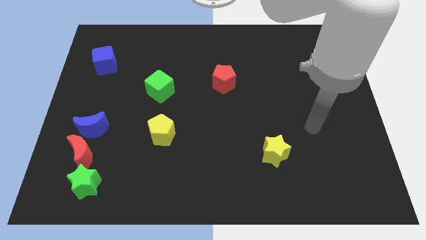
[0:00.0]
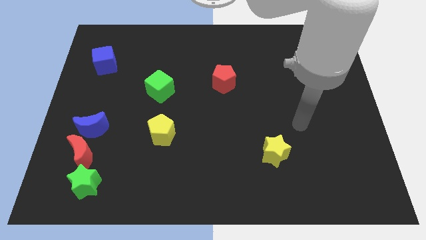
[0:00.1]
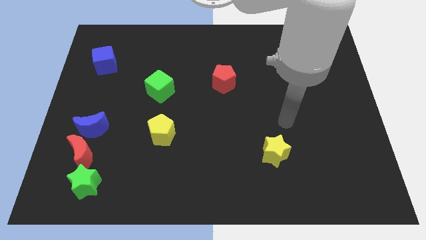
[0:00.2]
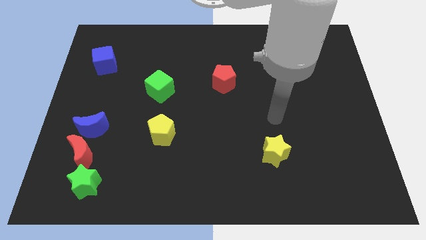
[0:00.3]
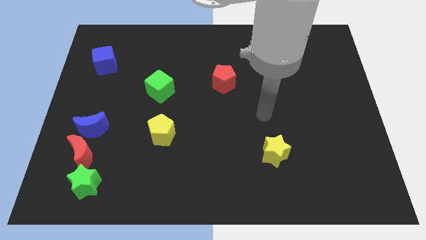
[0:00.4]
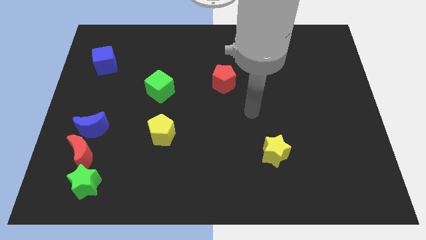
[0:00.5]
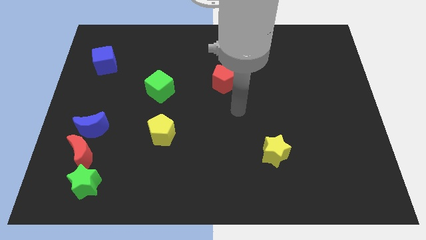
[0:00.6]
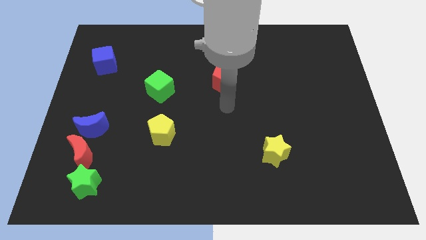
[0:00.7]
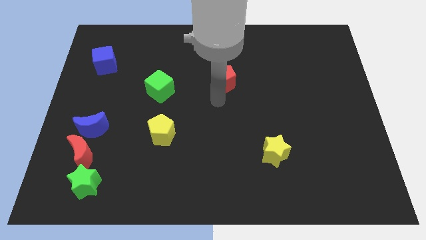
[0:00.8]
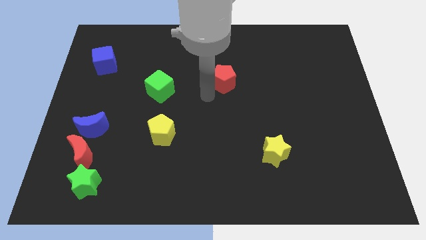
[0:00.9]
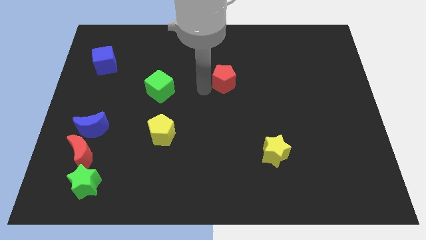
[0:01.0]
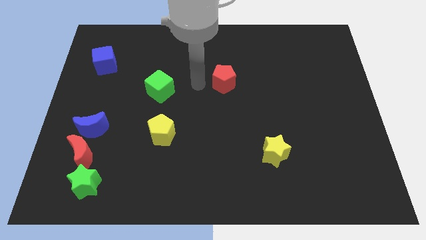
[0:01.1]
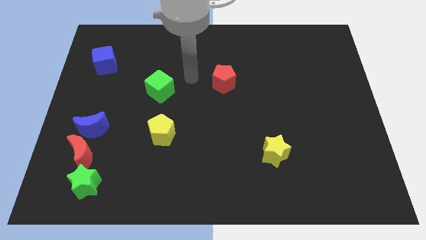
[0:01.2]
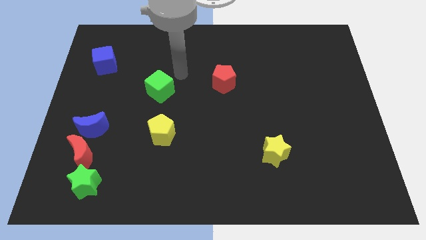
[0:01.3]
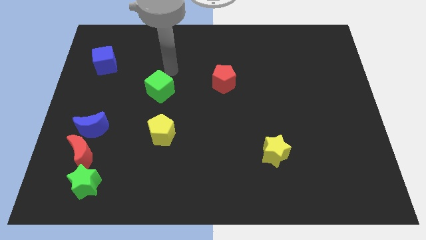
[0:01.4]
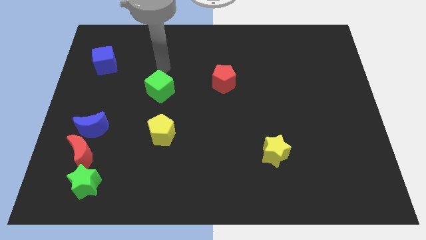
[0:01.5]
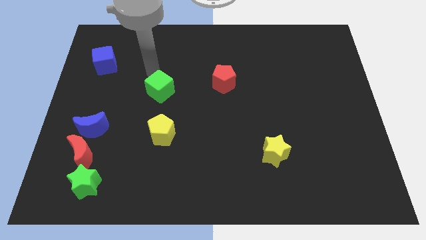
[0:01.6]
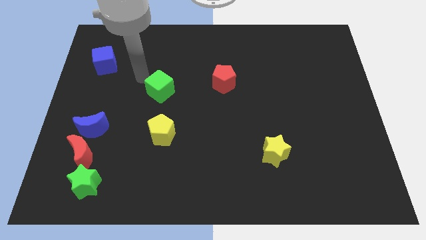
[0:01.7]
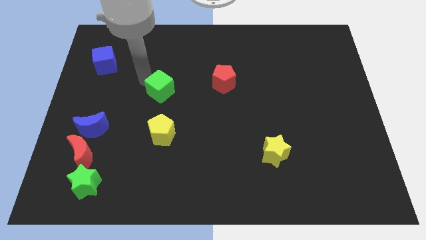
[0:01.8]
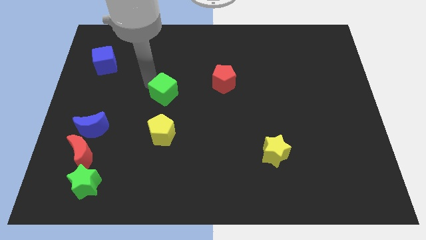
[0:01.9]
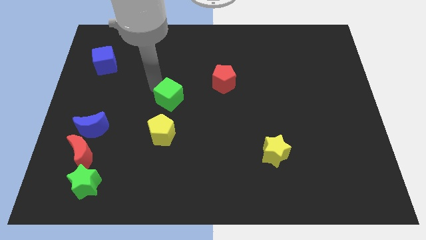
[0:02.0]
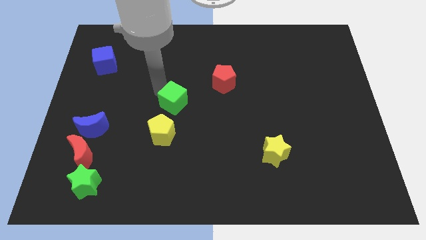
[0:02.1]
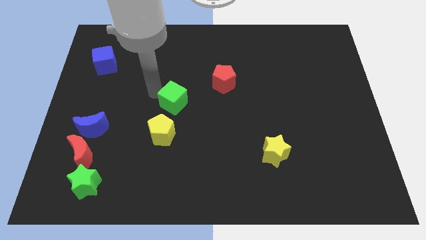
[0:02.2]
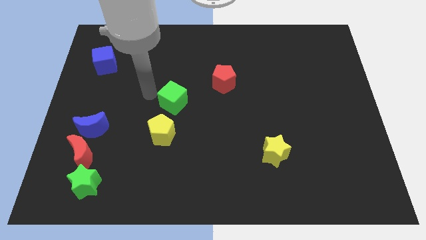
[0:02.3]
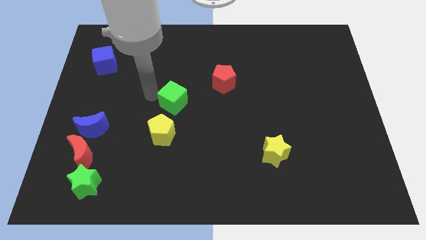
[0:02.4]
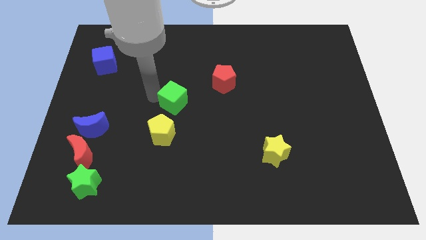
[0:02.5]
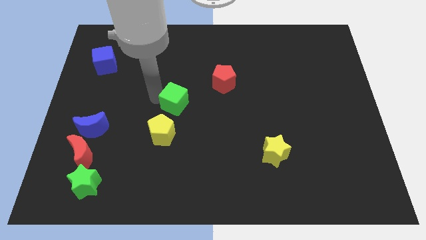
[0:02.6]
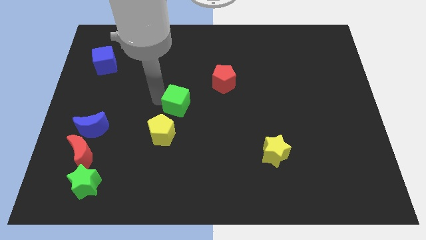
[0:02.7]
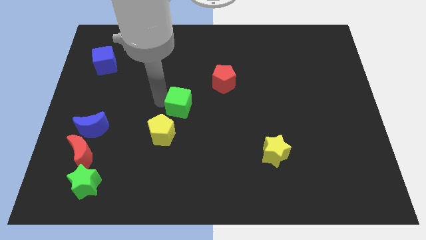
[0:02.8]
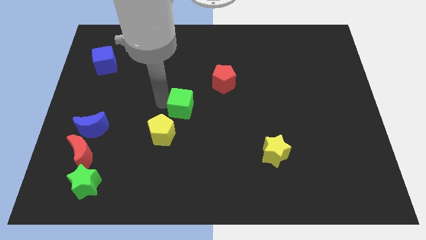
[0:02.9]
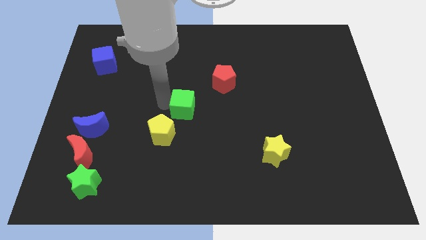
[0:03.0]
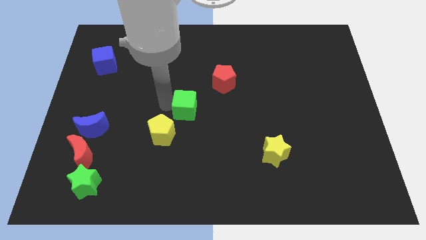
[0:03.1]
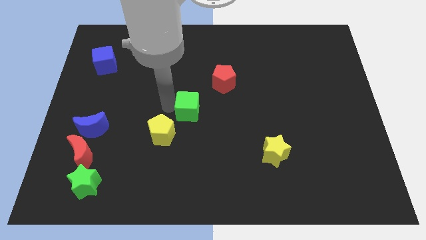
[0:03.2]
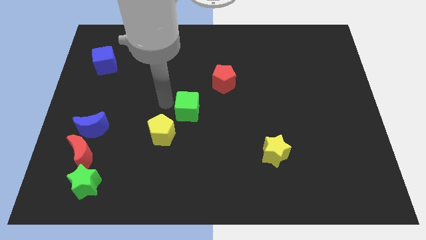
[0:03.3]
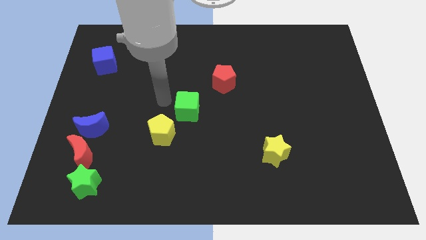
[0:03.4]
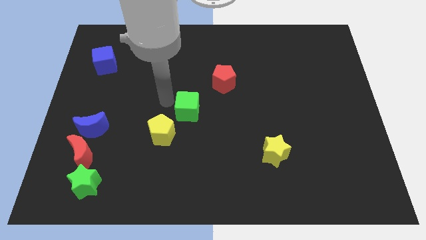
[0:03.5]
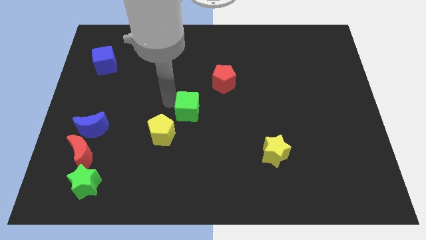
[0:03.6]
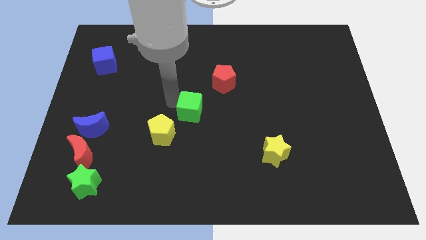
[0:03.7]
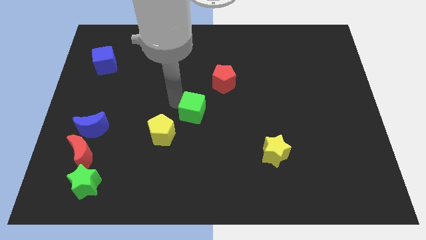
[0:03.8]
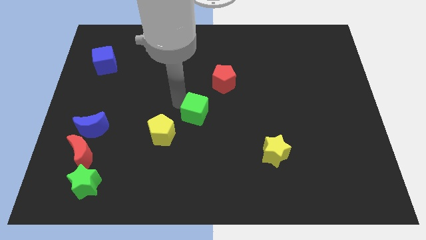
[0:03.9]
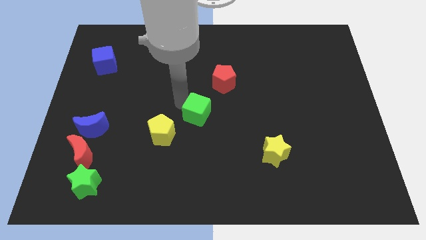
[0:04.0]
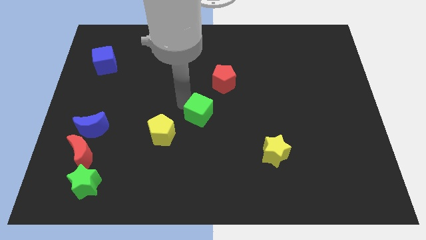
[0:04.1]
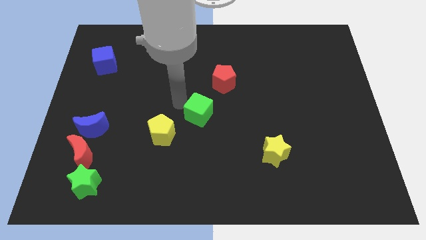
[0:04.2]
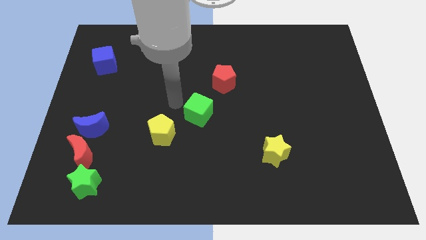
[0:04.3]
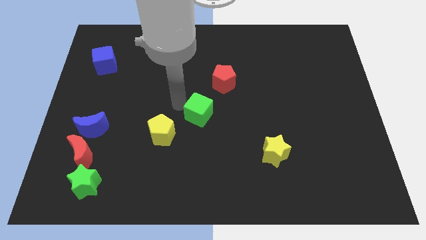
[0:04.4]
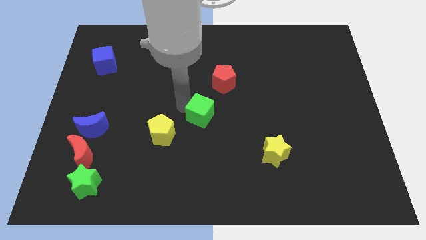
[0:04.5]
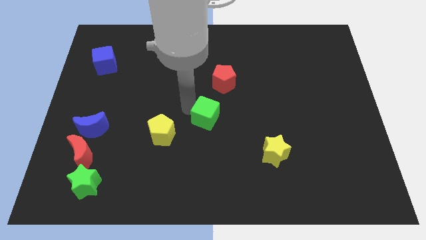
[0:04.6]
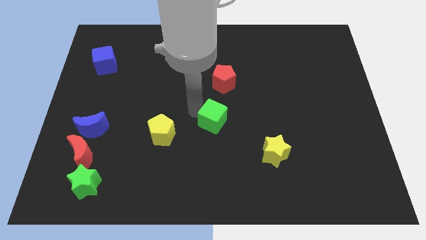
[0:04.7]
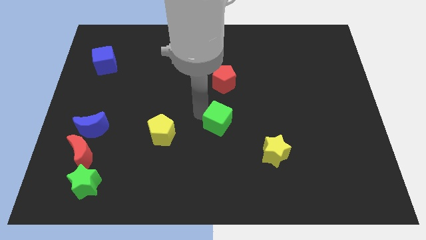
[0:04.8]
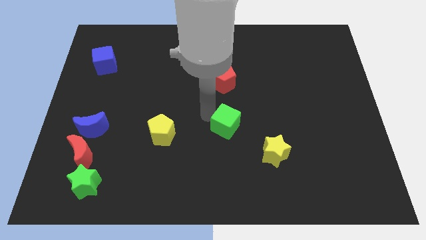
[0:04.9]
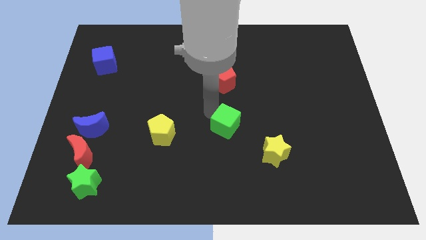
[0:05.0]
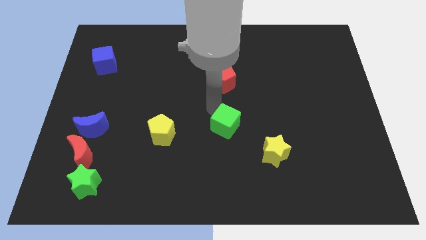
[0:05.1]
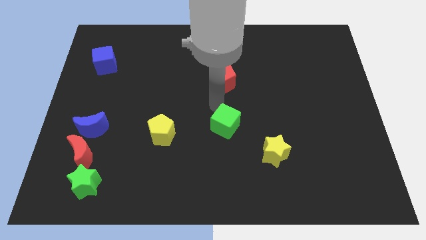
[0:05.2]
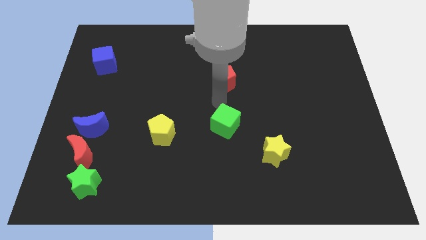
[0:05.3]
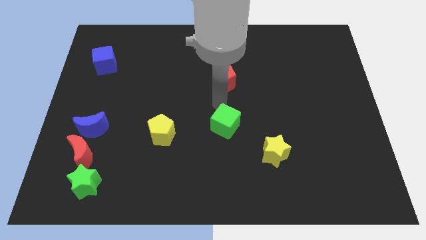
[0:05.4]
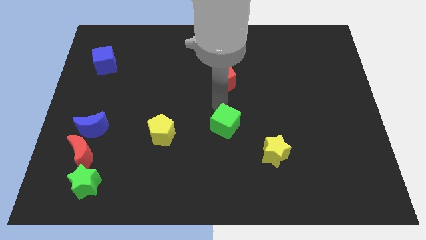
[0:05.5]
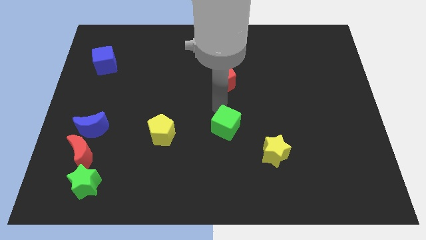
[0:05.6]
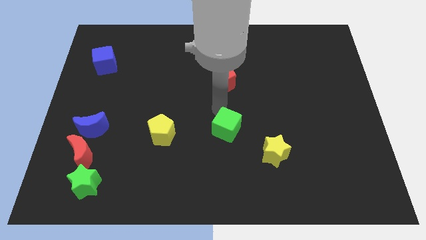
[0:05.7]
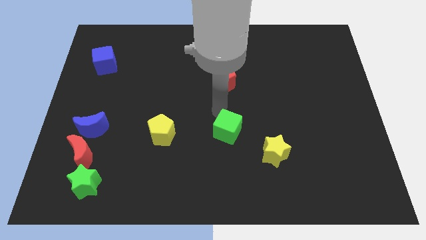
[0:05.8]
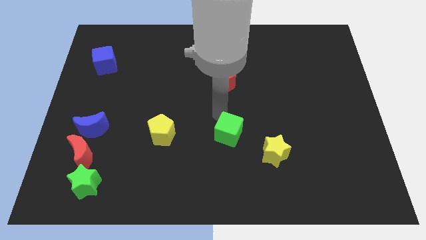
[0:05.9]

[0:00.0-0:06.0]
slide the green cube down and then right

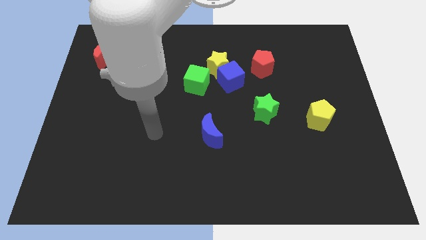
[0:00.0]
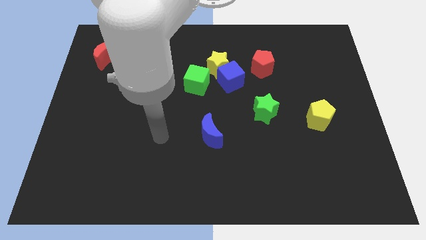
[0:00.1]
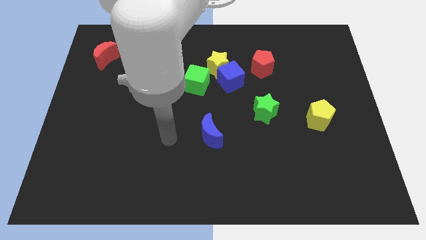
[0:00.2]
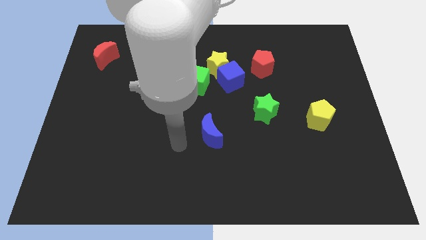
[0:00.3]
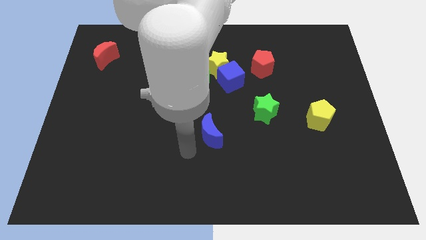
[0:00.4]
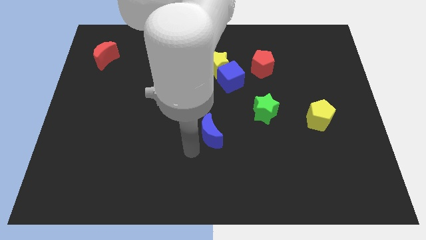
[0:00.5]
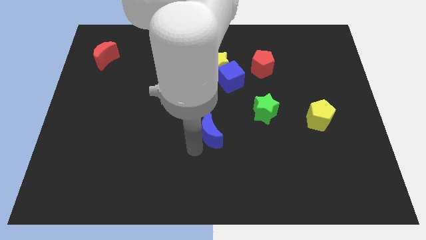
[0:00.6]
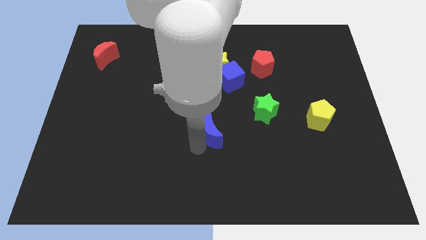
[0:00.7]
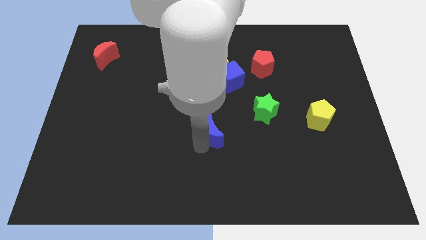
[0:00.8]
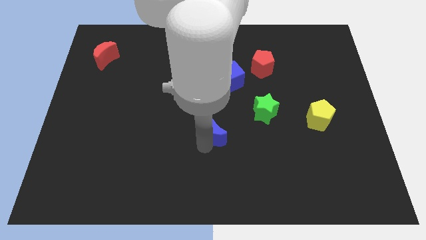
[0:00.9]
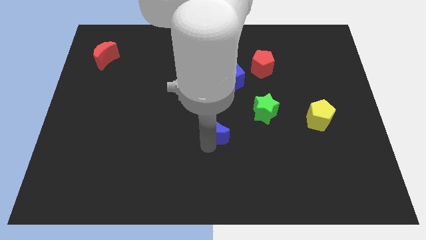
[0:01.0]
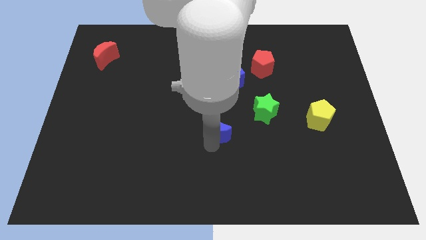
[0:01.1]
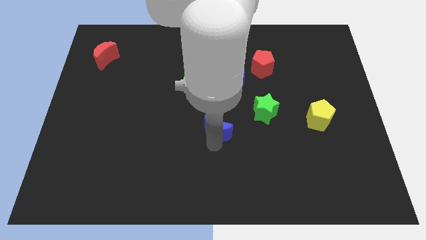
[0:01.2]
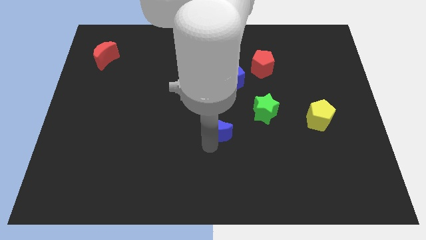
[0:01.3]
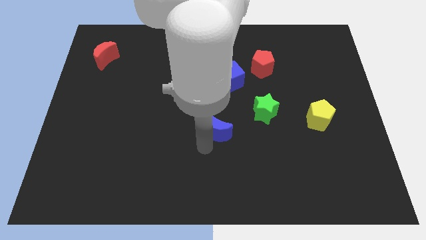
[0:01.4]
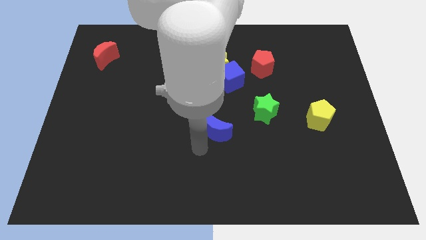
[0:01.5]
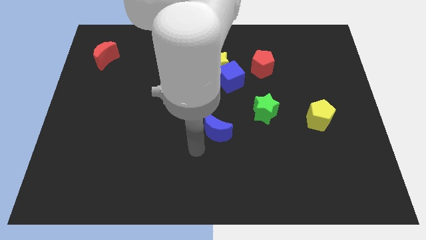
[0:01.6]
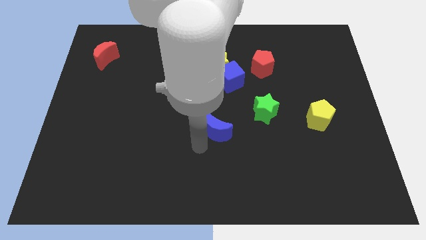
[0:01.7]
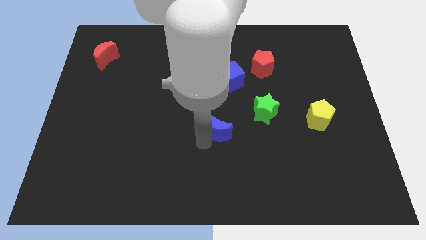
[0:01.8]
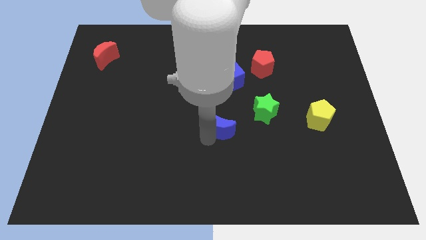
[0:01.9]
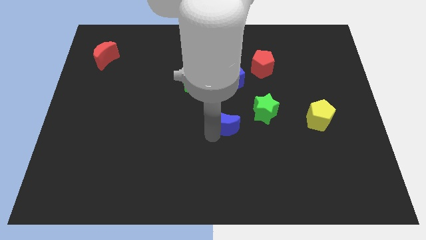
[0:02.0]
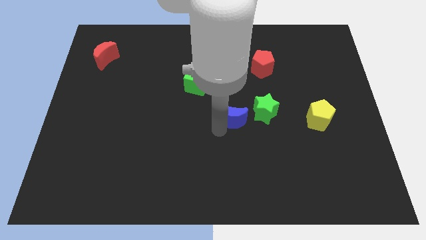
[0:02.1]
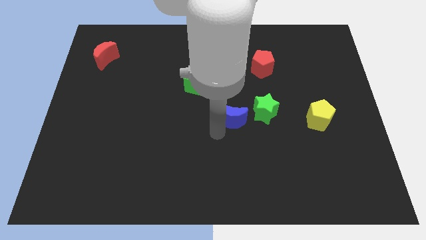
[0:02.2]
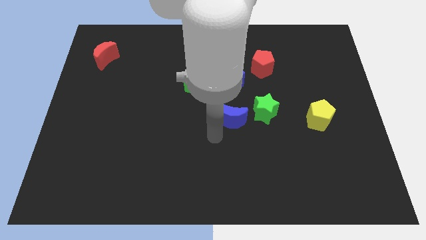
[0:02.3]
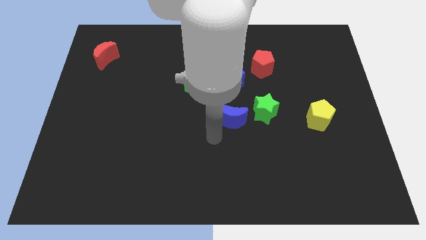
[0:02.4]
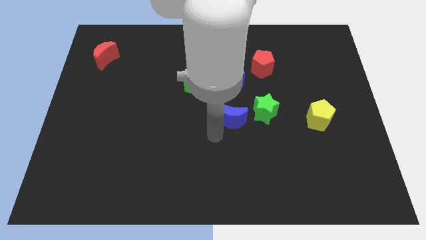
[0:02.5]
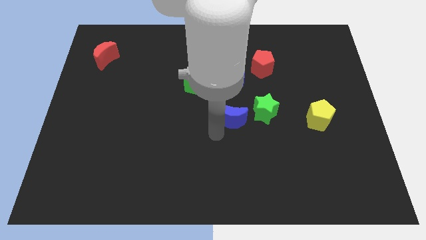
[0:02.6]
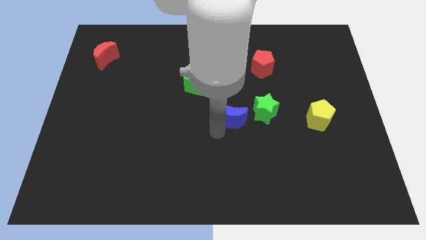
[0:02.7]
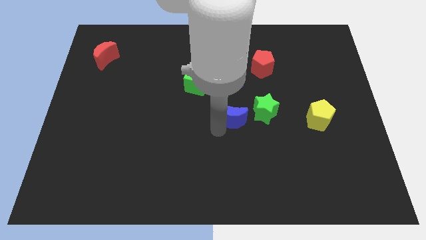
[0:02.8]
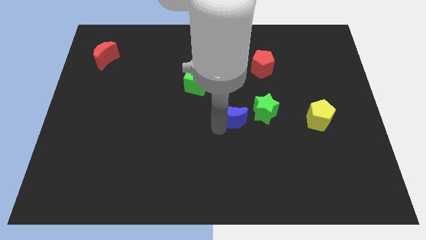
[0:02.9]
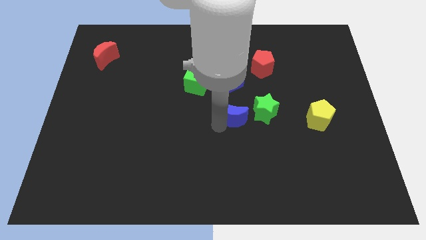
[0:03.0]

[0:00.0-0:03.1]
push the blue moon a little bit diagonally upwards and right
